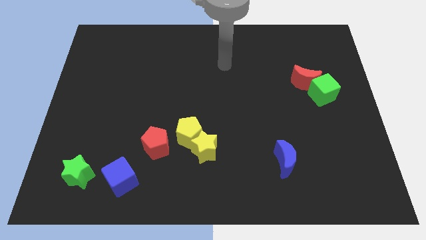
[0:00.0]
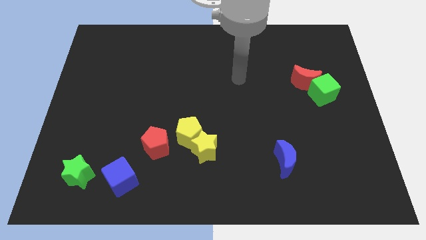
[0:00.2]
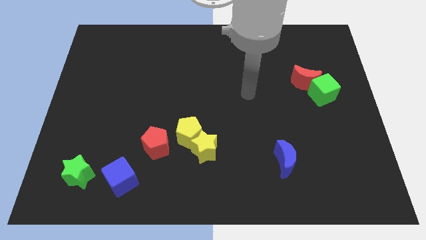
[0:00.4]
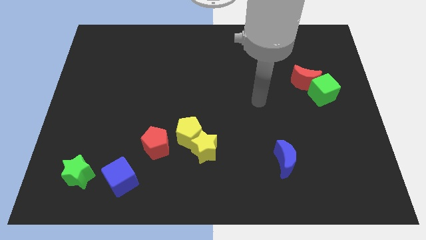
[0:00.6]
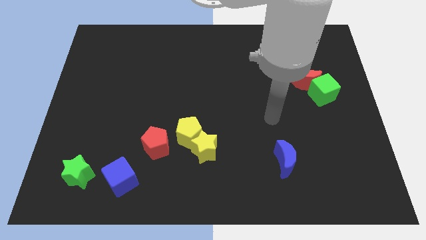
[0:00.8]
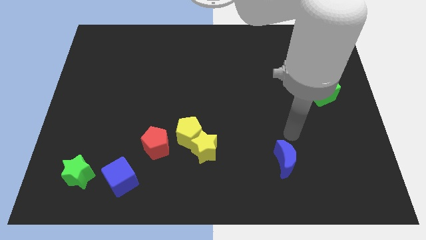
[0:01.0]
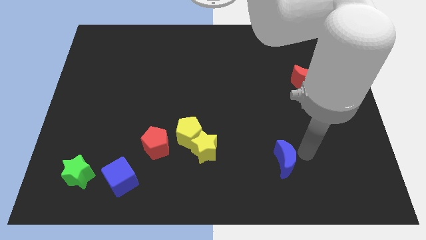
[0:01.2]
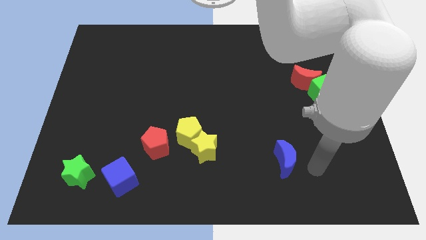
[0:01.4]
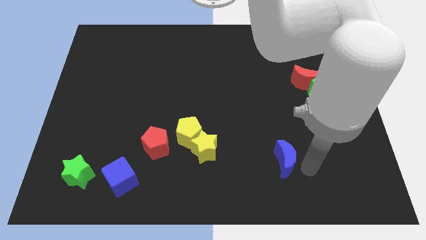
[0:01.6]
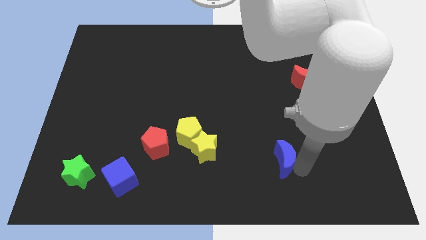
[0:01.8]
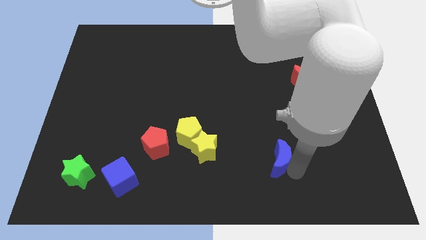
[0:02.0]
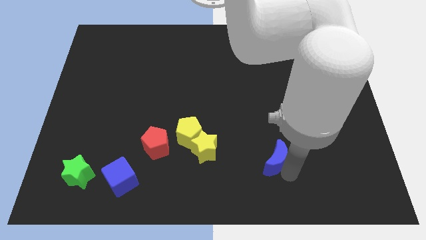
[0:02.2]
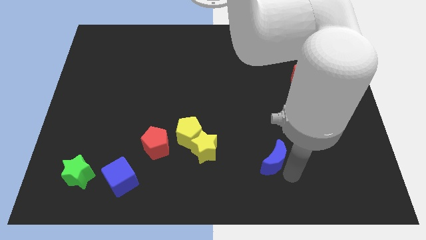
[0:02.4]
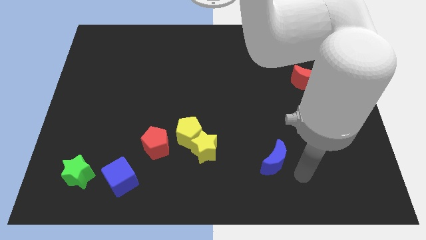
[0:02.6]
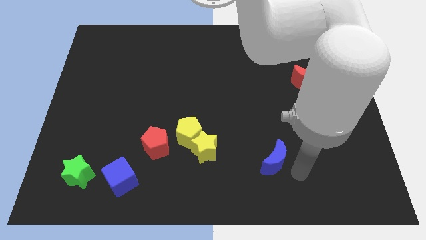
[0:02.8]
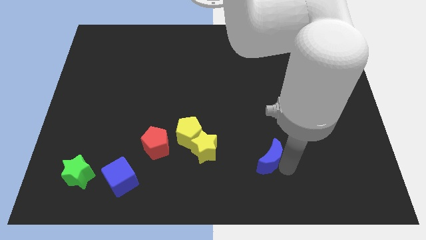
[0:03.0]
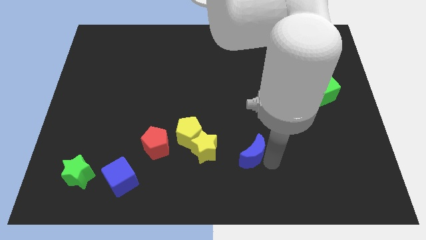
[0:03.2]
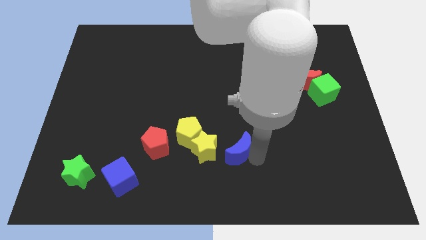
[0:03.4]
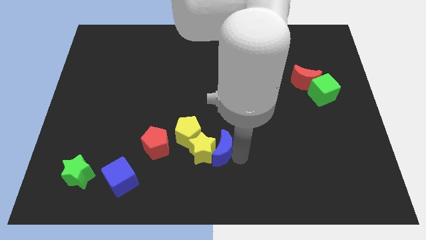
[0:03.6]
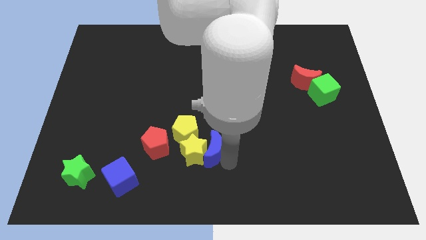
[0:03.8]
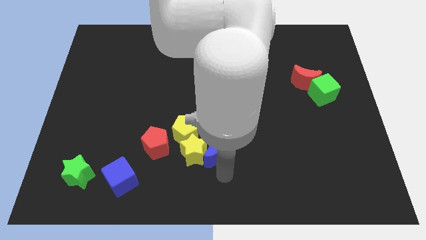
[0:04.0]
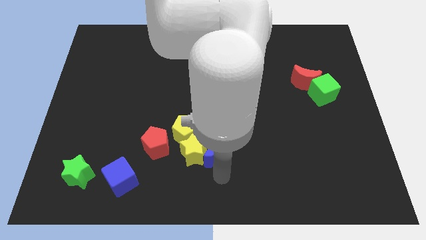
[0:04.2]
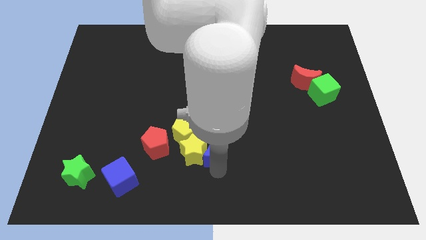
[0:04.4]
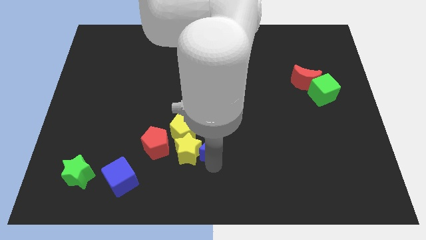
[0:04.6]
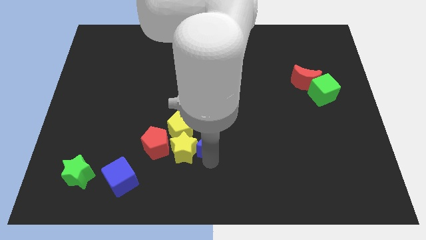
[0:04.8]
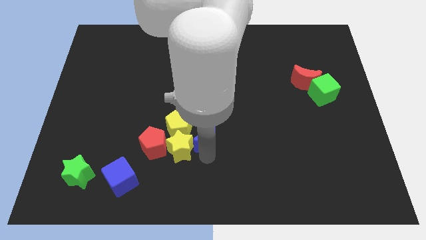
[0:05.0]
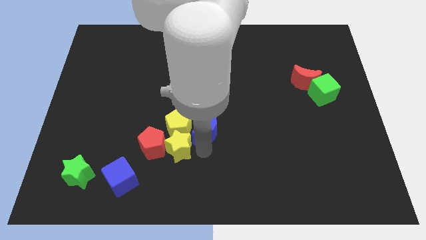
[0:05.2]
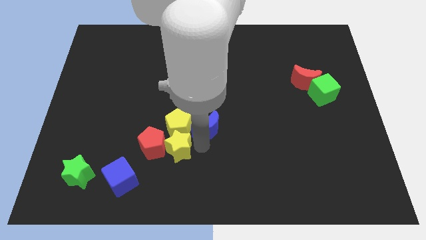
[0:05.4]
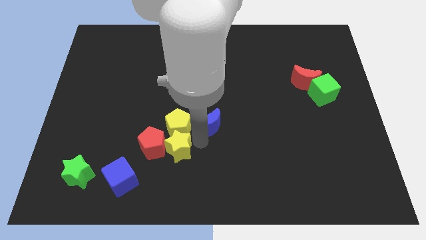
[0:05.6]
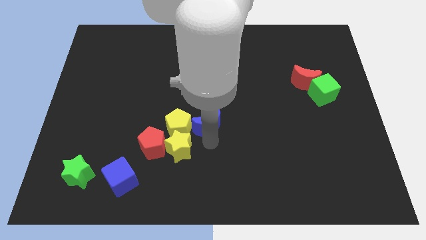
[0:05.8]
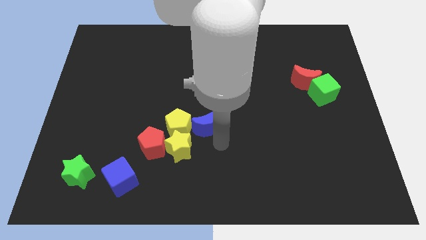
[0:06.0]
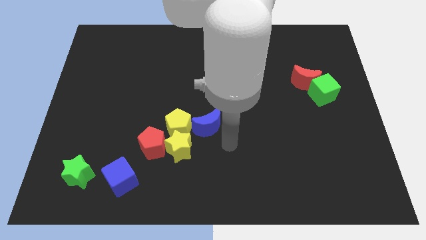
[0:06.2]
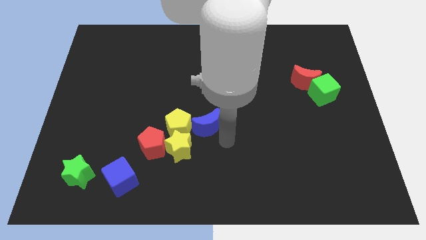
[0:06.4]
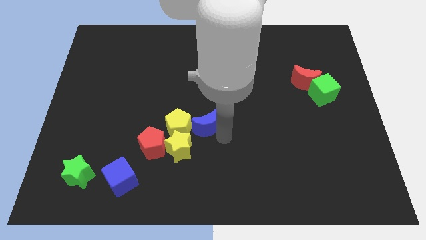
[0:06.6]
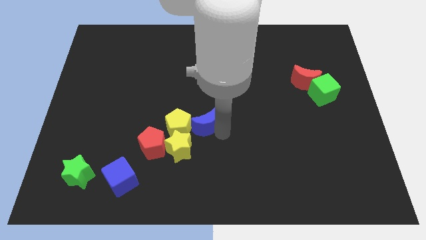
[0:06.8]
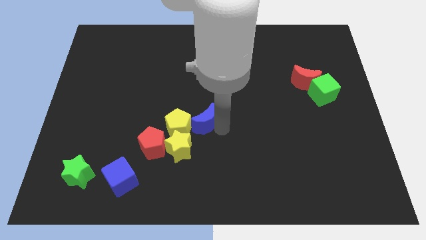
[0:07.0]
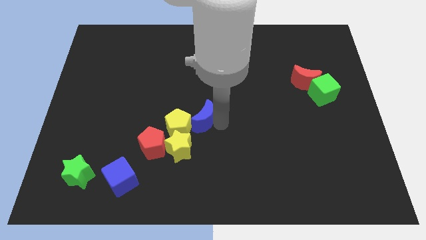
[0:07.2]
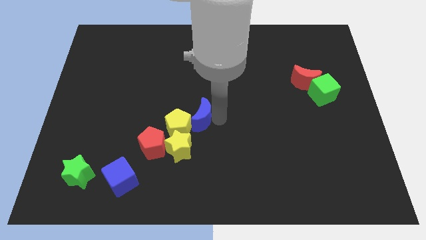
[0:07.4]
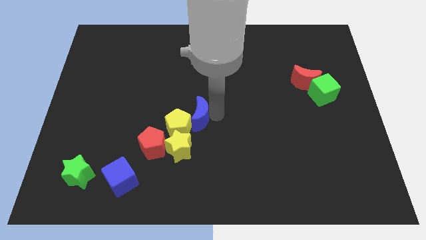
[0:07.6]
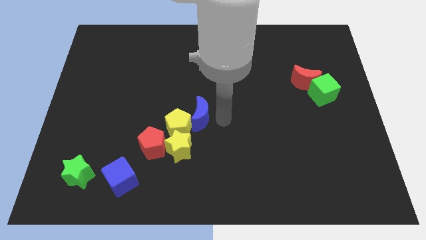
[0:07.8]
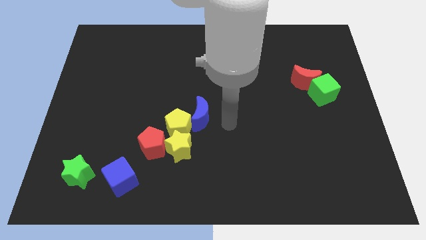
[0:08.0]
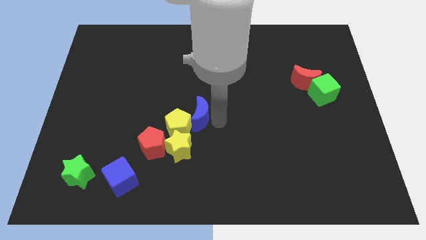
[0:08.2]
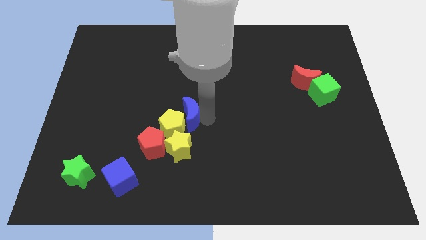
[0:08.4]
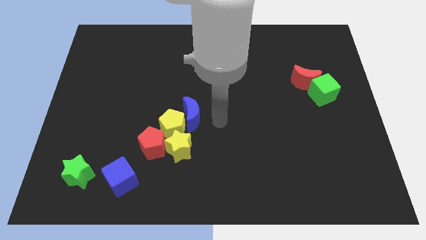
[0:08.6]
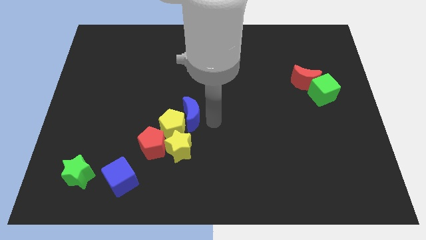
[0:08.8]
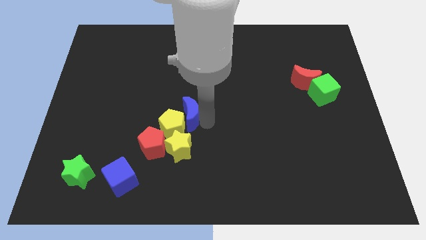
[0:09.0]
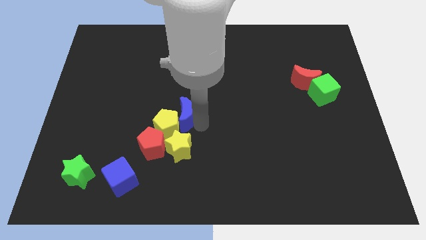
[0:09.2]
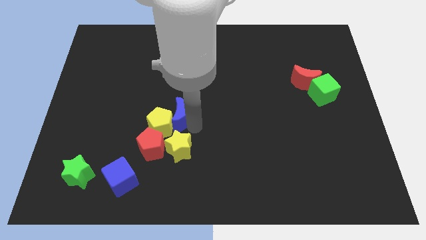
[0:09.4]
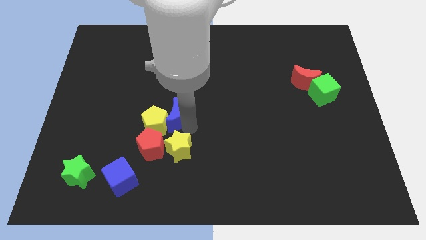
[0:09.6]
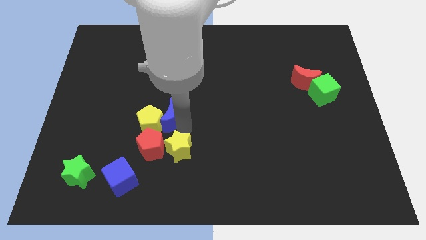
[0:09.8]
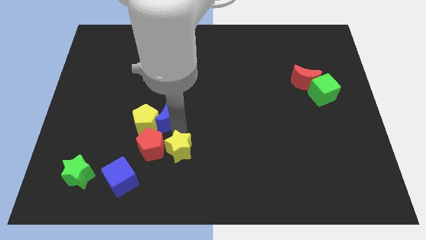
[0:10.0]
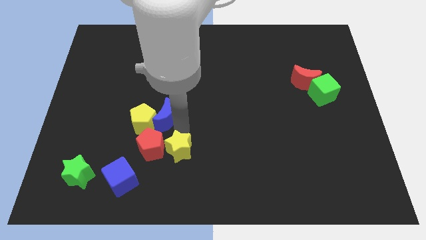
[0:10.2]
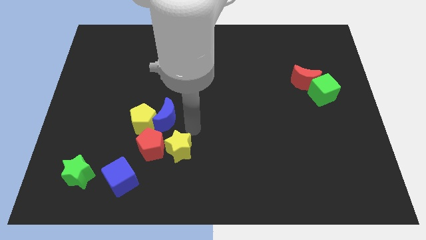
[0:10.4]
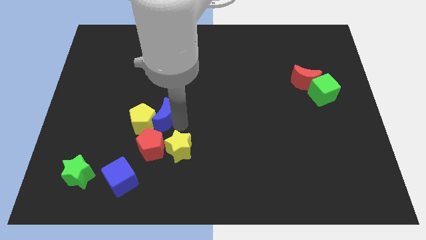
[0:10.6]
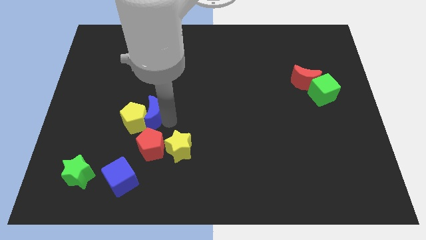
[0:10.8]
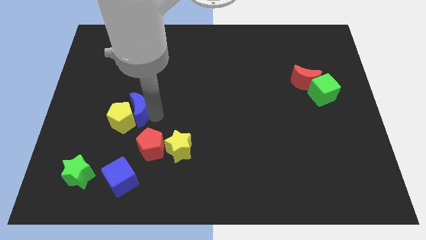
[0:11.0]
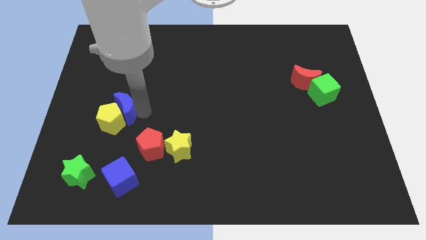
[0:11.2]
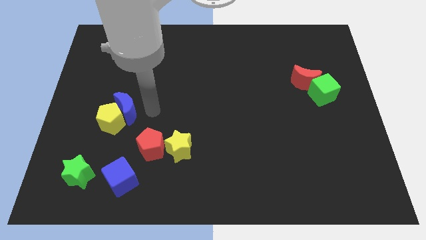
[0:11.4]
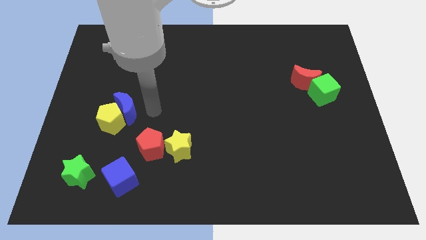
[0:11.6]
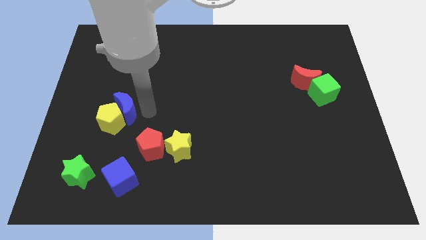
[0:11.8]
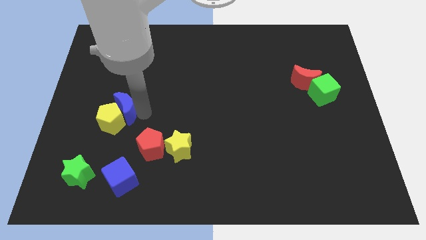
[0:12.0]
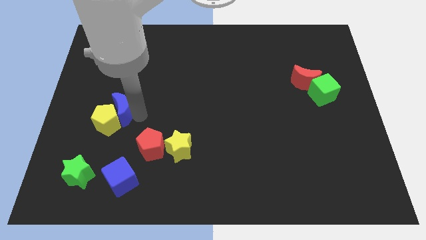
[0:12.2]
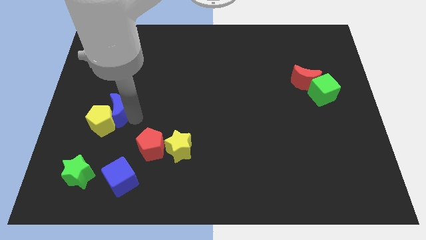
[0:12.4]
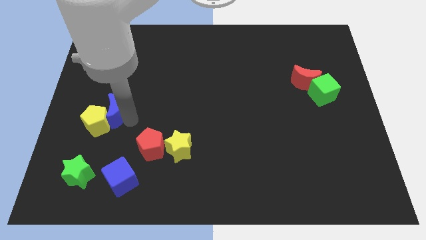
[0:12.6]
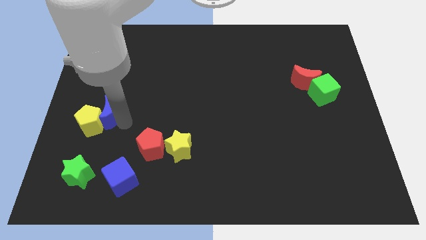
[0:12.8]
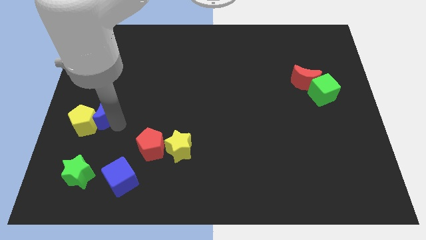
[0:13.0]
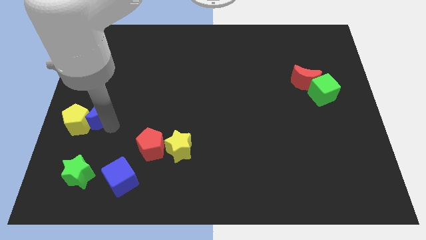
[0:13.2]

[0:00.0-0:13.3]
put the blue moon to the center left

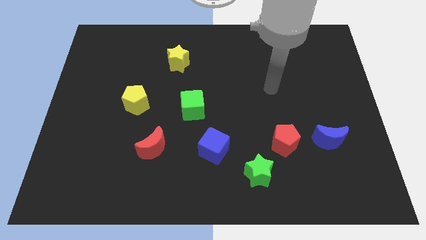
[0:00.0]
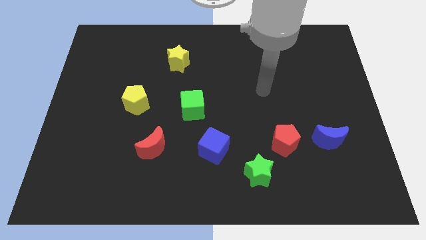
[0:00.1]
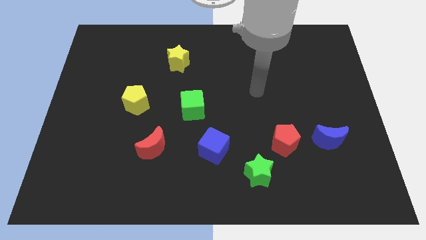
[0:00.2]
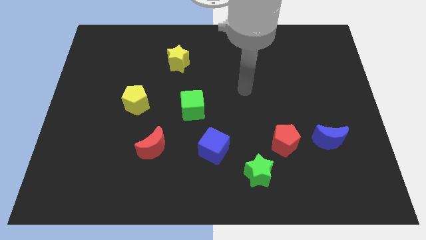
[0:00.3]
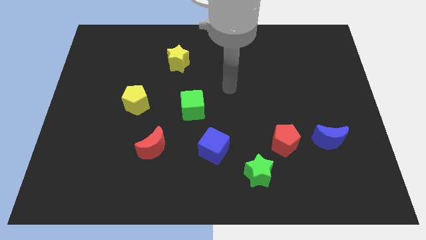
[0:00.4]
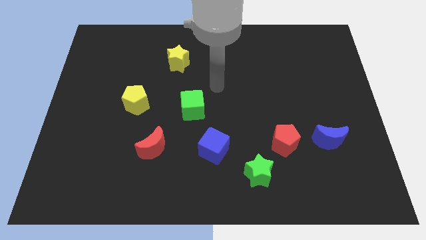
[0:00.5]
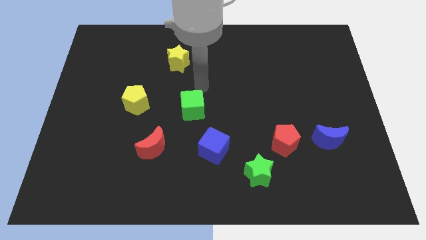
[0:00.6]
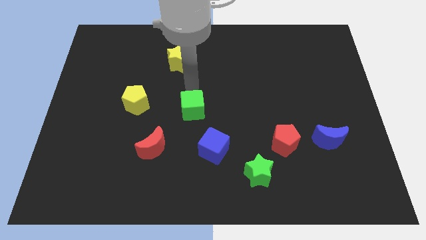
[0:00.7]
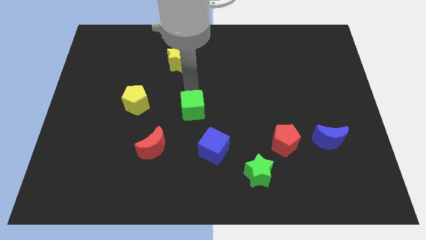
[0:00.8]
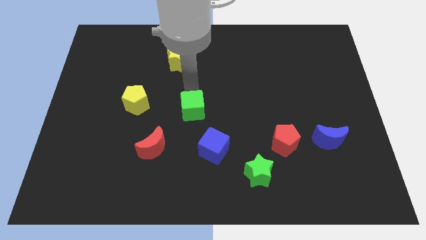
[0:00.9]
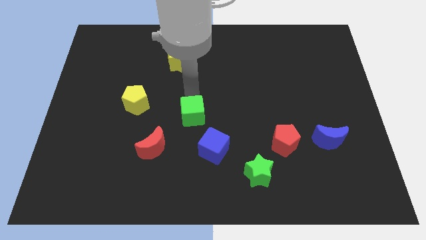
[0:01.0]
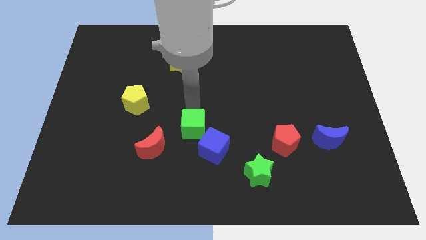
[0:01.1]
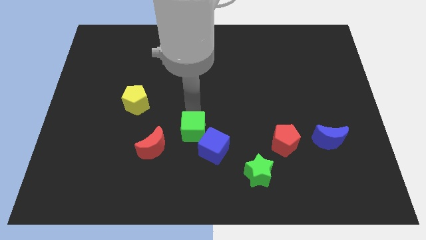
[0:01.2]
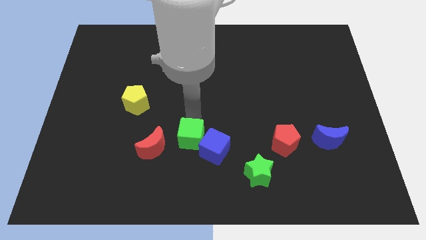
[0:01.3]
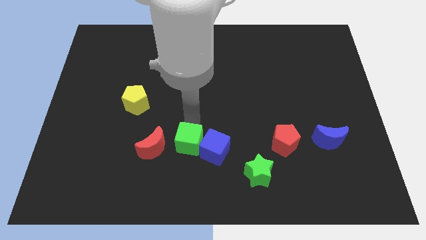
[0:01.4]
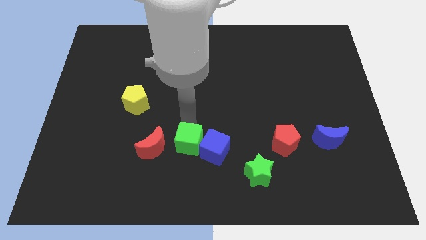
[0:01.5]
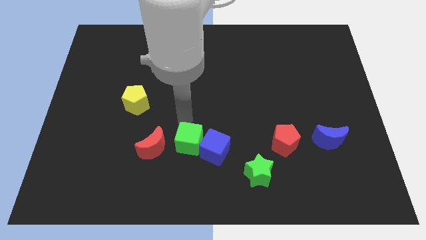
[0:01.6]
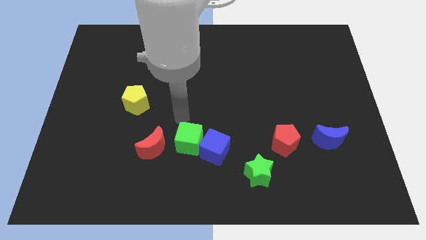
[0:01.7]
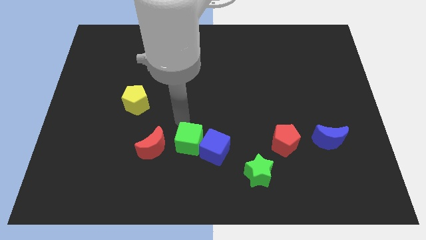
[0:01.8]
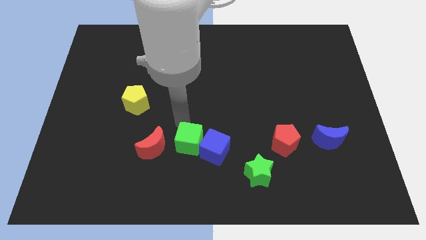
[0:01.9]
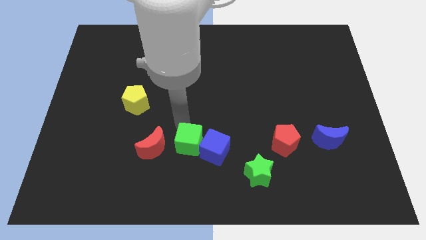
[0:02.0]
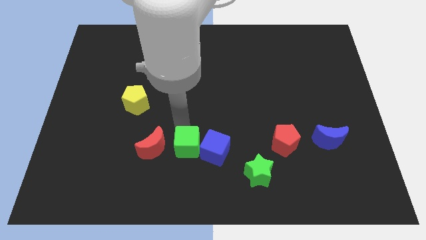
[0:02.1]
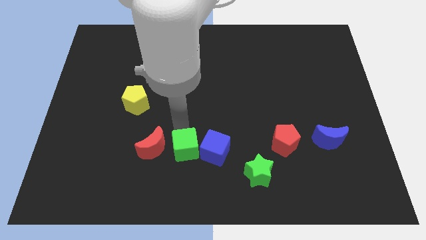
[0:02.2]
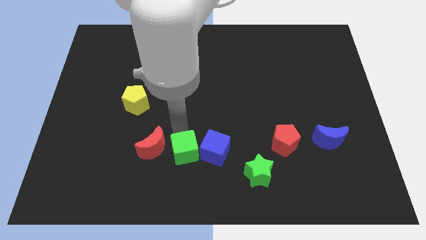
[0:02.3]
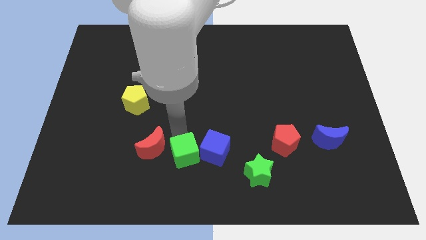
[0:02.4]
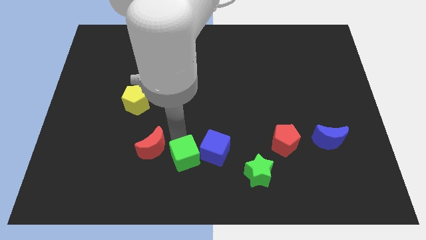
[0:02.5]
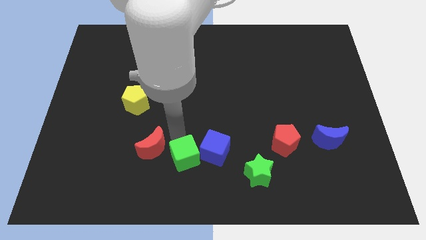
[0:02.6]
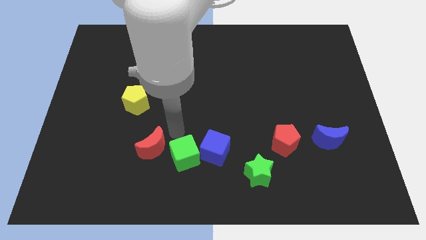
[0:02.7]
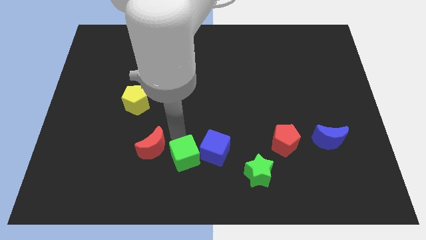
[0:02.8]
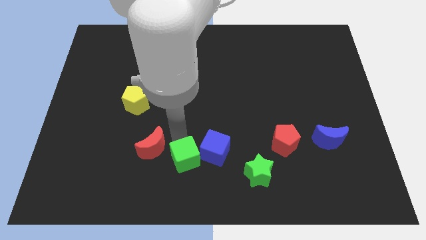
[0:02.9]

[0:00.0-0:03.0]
put the green cube to the bottom
